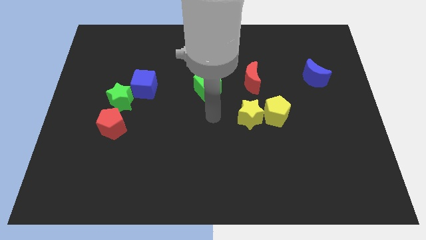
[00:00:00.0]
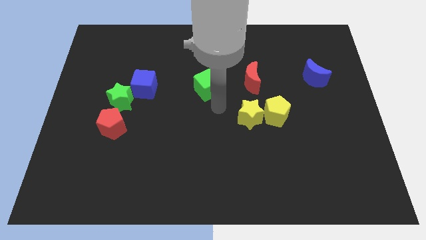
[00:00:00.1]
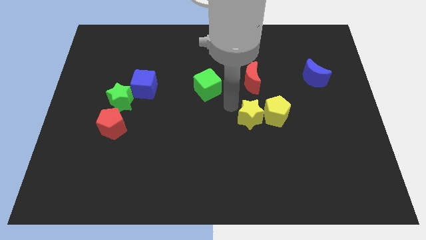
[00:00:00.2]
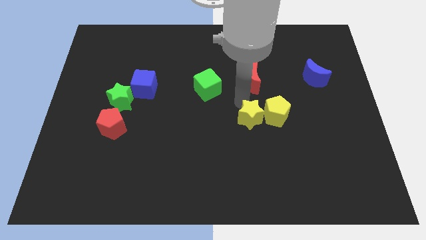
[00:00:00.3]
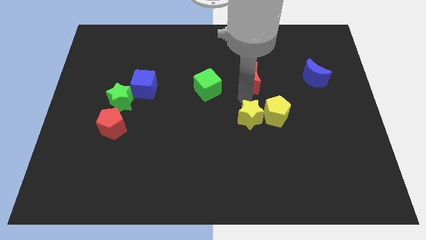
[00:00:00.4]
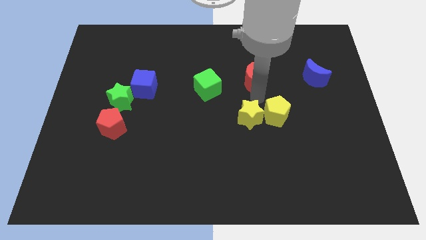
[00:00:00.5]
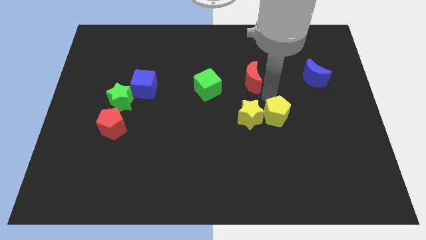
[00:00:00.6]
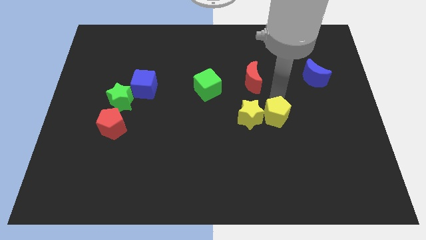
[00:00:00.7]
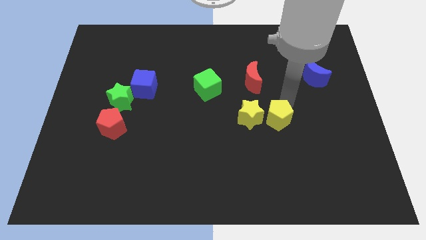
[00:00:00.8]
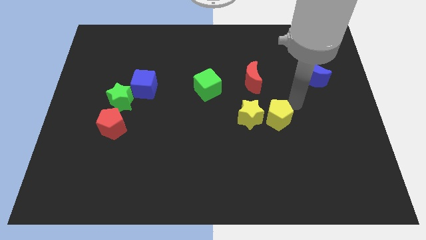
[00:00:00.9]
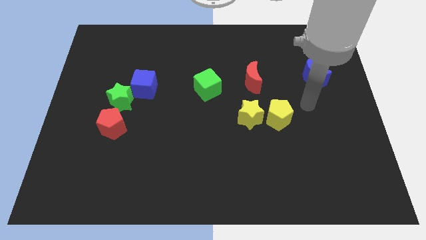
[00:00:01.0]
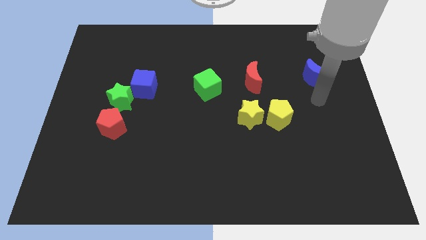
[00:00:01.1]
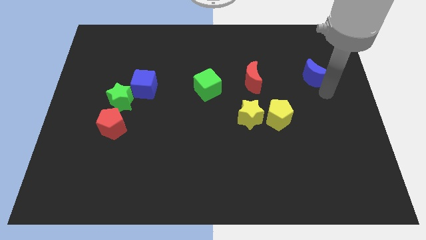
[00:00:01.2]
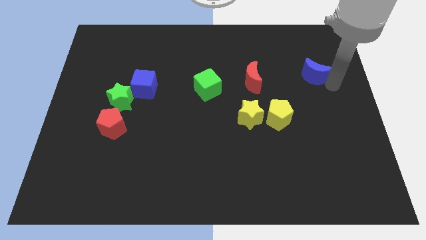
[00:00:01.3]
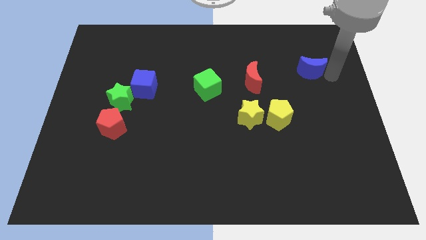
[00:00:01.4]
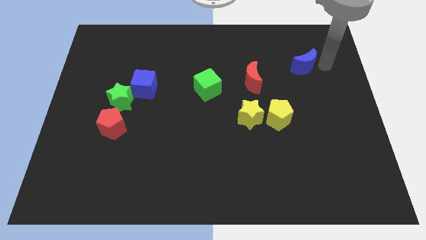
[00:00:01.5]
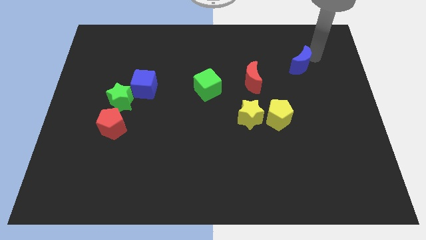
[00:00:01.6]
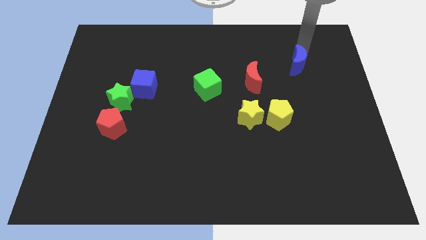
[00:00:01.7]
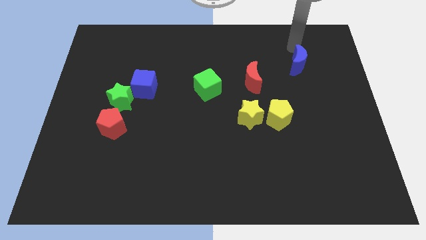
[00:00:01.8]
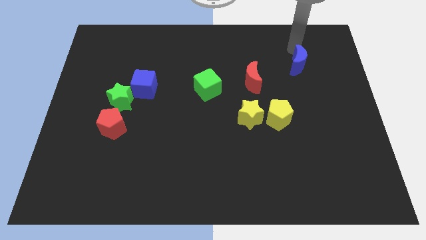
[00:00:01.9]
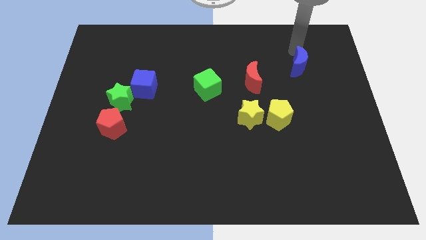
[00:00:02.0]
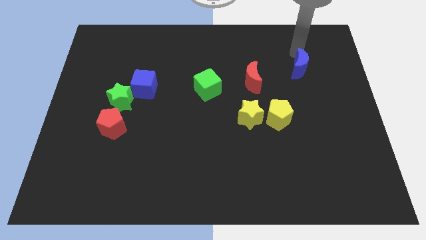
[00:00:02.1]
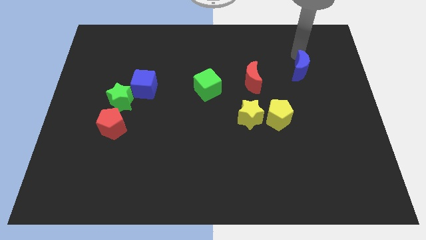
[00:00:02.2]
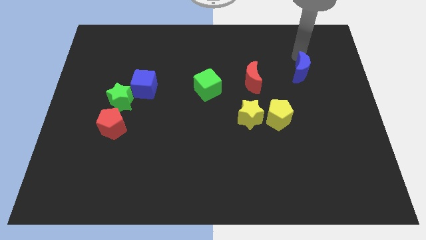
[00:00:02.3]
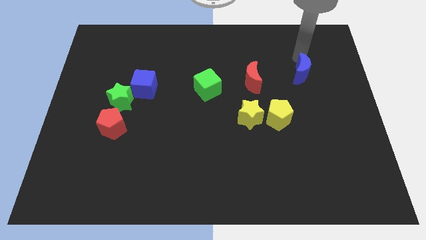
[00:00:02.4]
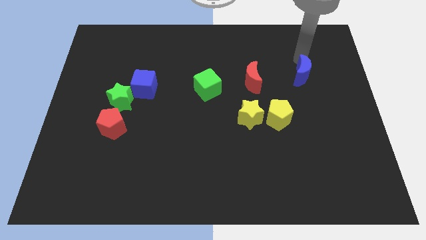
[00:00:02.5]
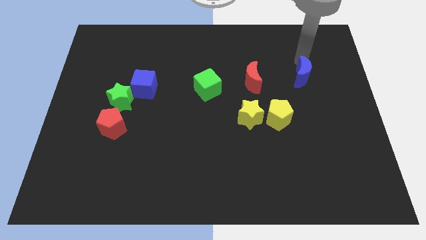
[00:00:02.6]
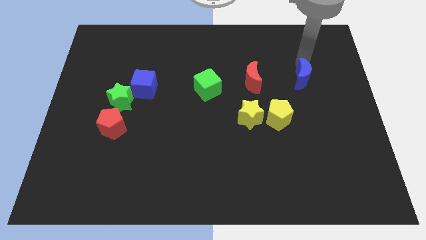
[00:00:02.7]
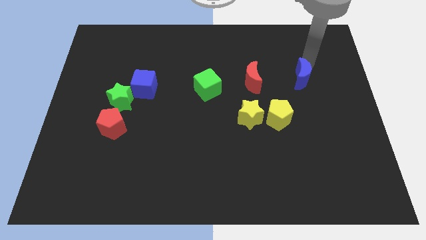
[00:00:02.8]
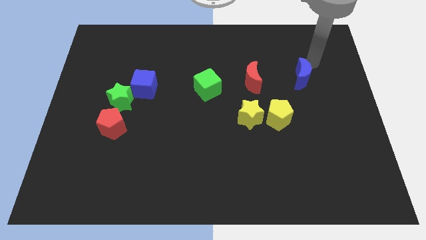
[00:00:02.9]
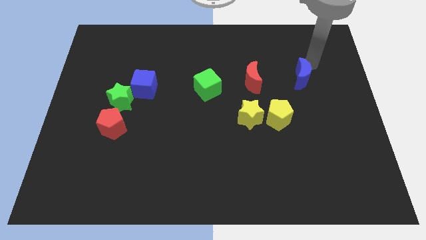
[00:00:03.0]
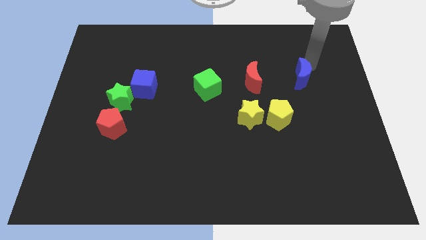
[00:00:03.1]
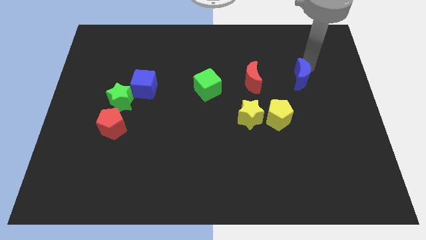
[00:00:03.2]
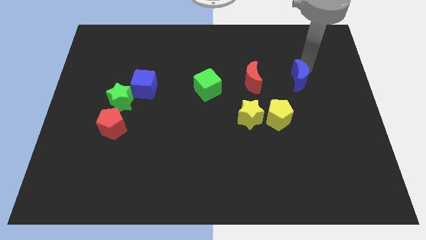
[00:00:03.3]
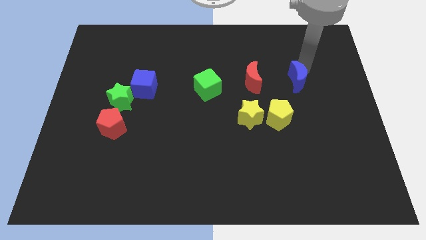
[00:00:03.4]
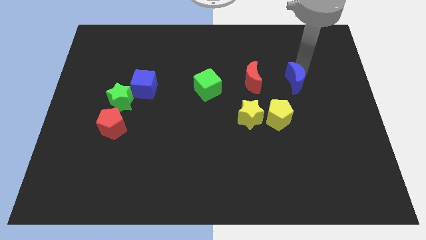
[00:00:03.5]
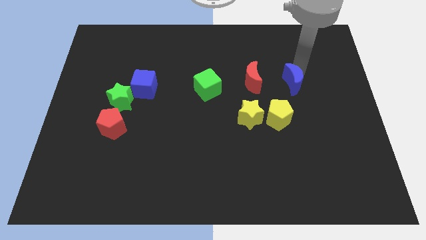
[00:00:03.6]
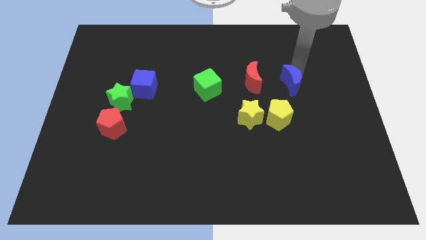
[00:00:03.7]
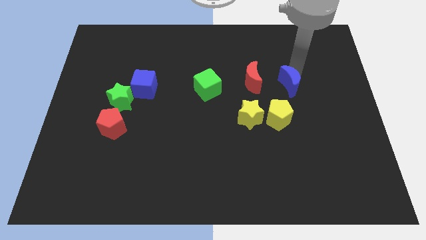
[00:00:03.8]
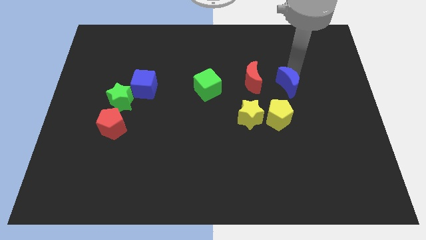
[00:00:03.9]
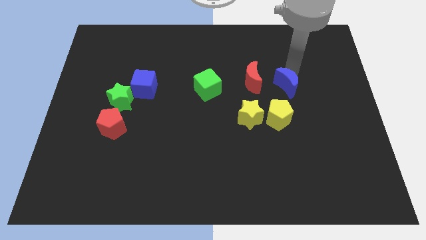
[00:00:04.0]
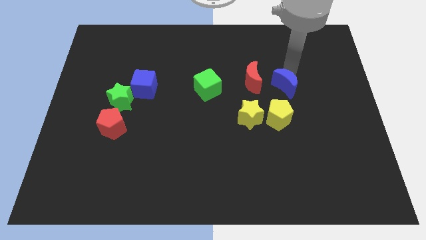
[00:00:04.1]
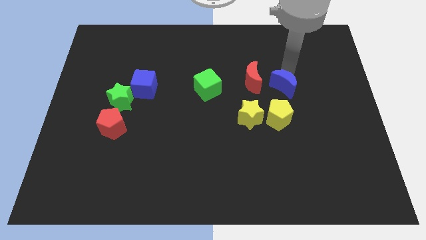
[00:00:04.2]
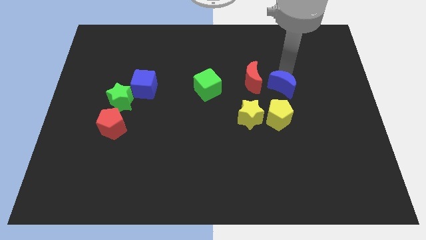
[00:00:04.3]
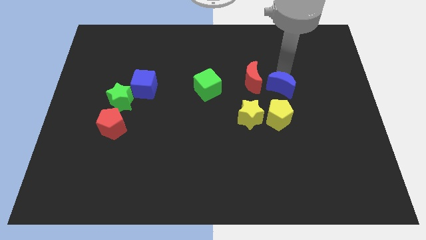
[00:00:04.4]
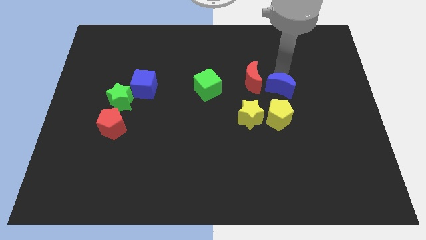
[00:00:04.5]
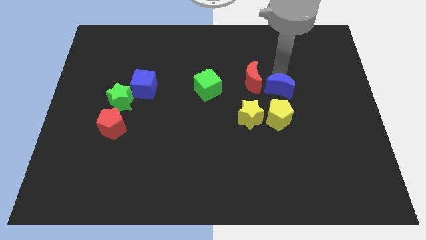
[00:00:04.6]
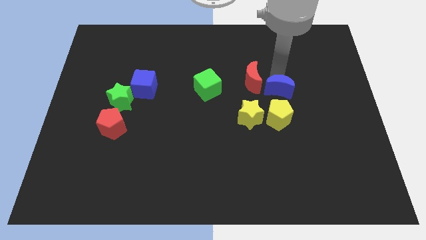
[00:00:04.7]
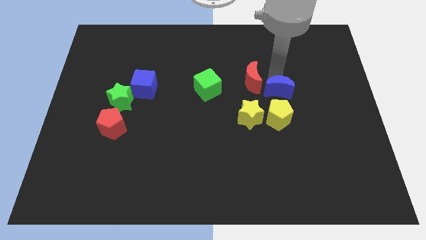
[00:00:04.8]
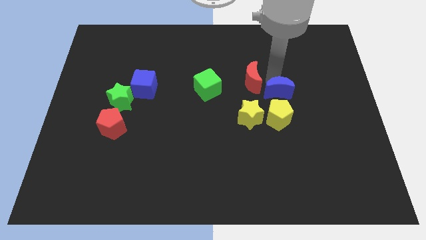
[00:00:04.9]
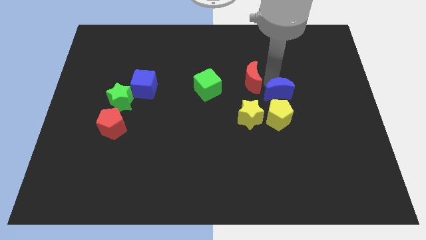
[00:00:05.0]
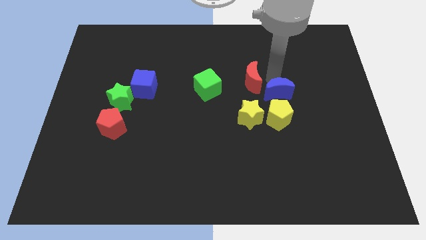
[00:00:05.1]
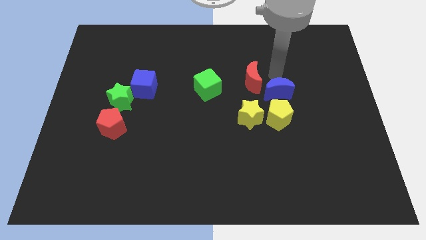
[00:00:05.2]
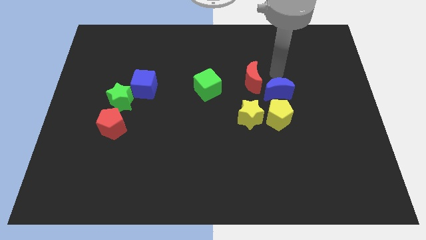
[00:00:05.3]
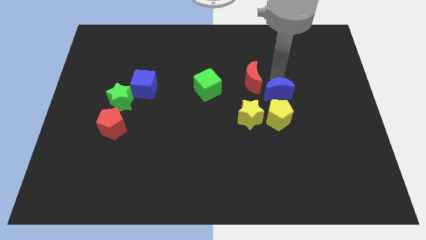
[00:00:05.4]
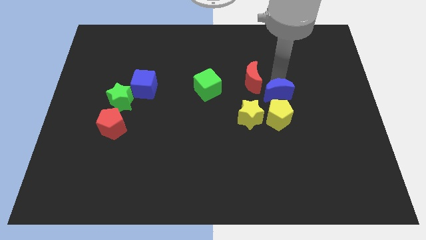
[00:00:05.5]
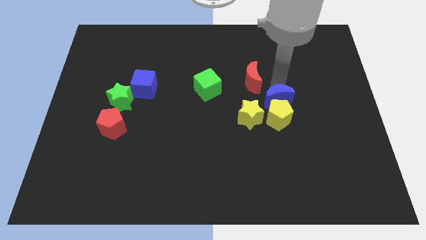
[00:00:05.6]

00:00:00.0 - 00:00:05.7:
put the blue moon towards the yellow pentagon
